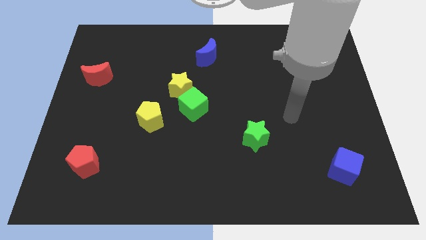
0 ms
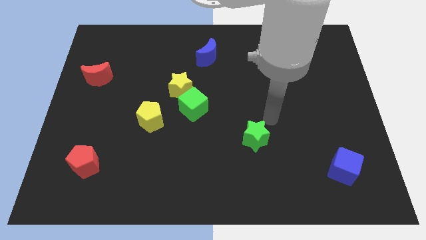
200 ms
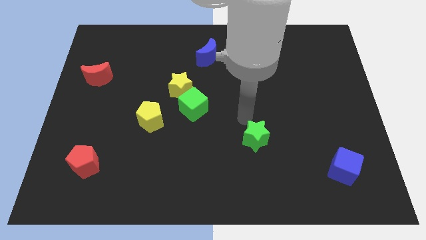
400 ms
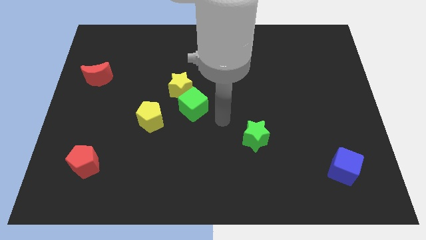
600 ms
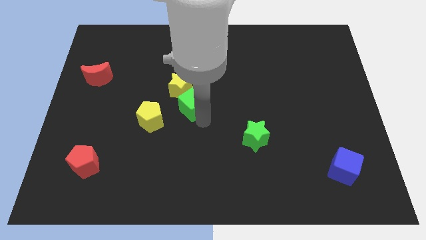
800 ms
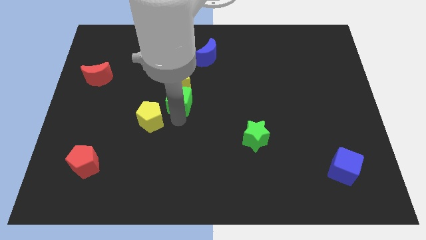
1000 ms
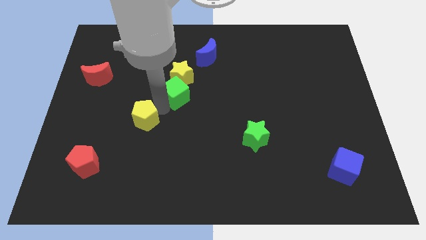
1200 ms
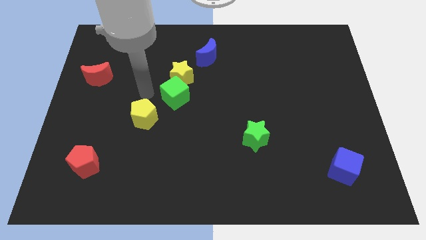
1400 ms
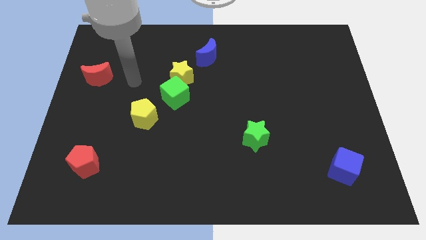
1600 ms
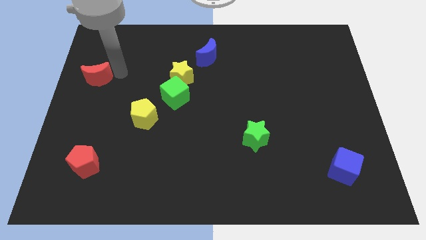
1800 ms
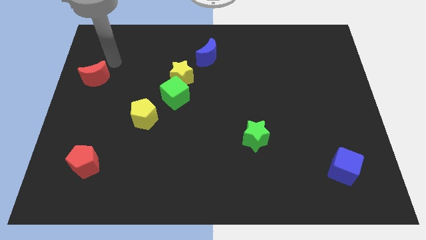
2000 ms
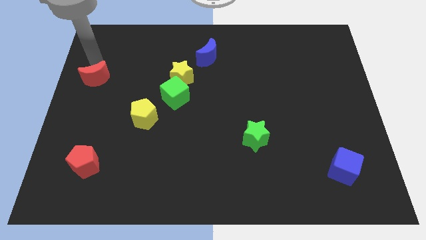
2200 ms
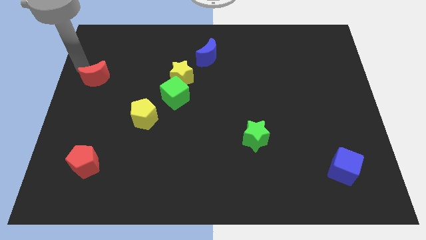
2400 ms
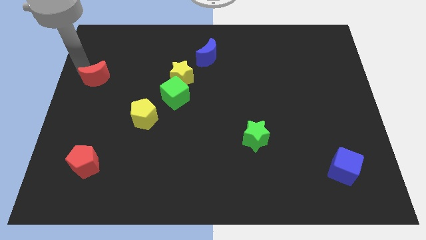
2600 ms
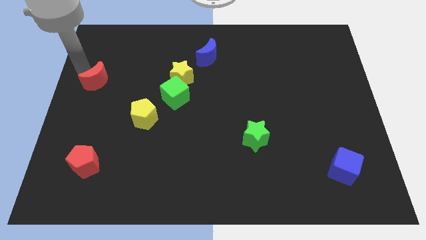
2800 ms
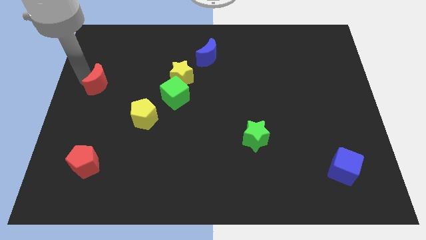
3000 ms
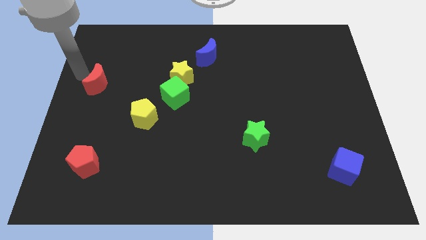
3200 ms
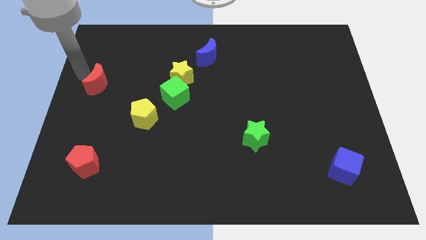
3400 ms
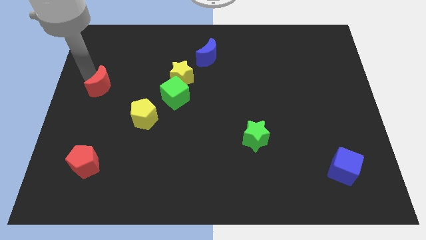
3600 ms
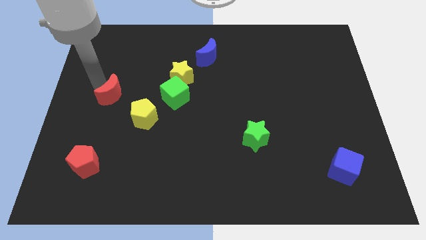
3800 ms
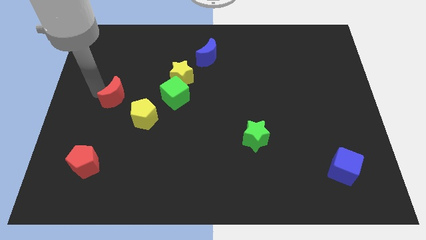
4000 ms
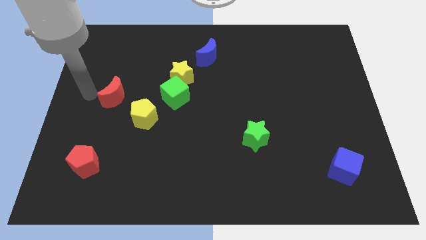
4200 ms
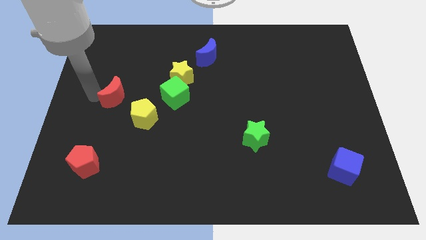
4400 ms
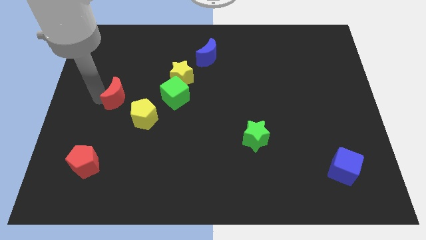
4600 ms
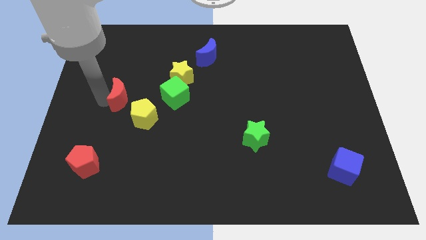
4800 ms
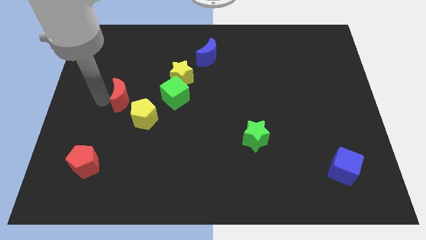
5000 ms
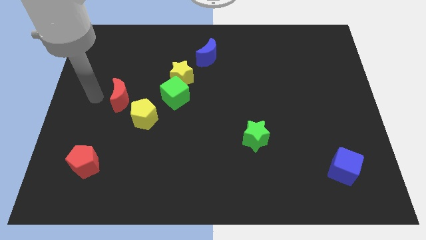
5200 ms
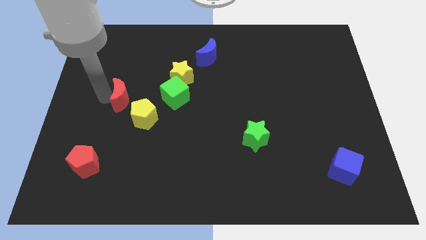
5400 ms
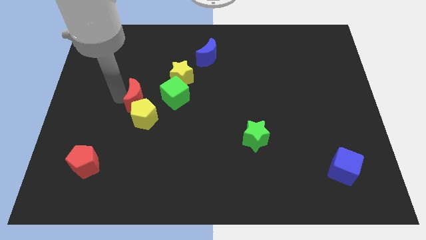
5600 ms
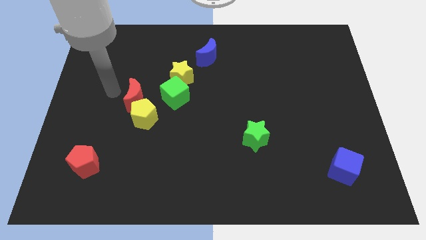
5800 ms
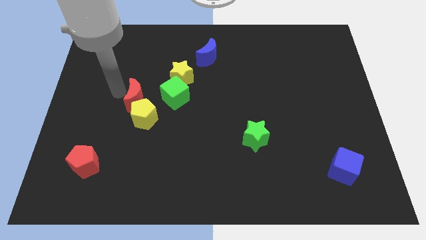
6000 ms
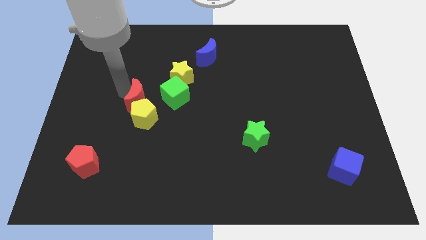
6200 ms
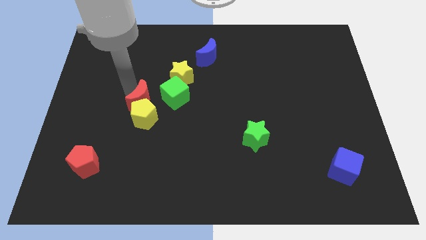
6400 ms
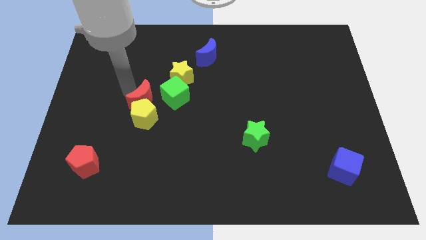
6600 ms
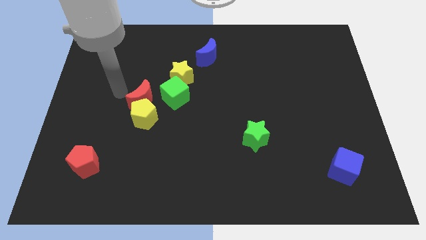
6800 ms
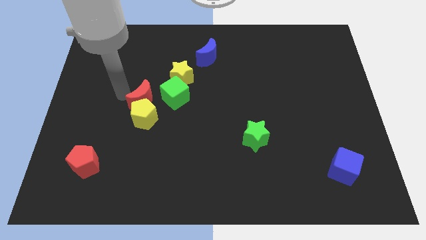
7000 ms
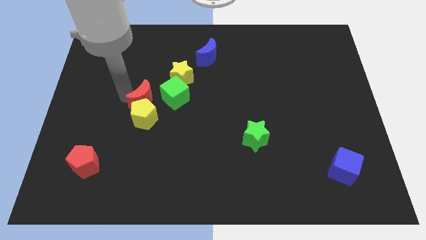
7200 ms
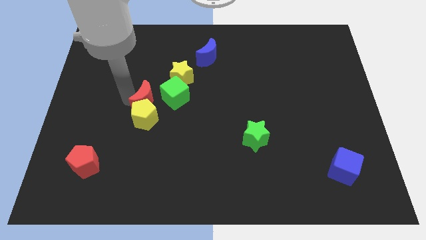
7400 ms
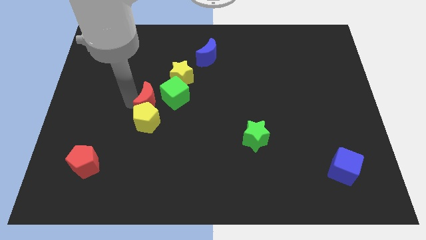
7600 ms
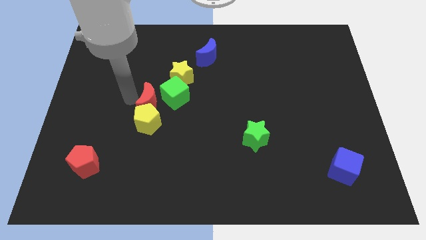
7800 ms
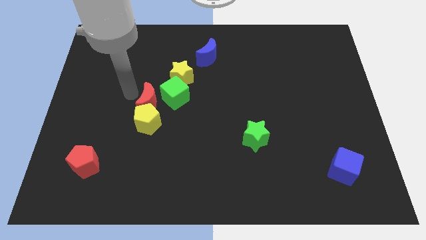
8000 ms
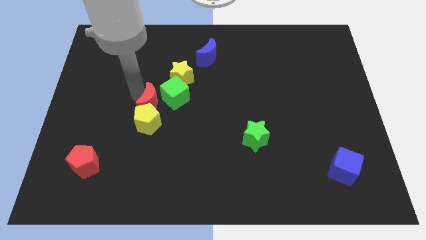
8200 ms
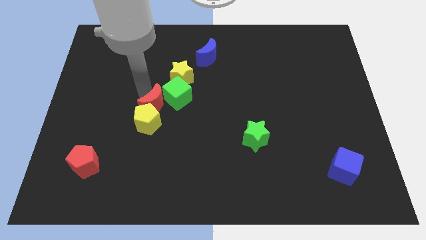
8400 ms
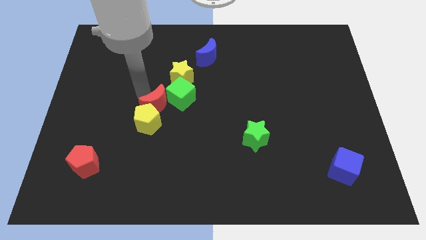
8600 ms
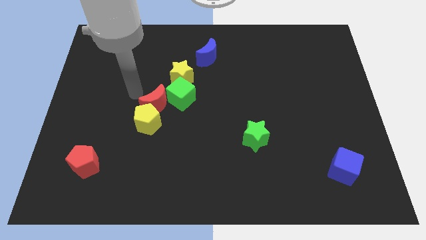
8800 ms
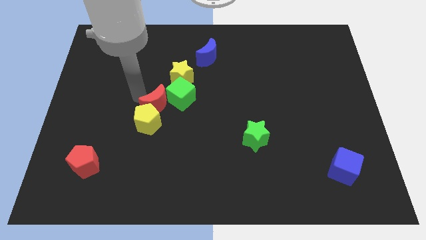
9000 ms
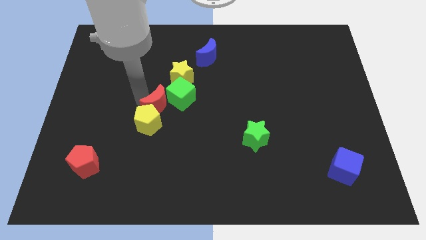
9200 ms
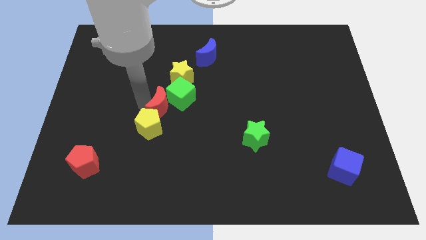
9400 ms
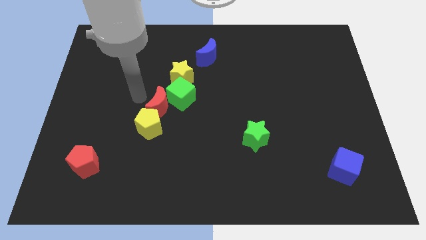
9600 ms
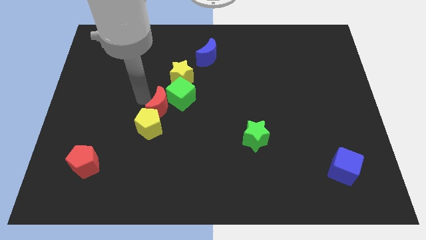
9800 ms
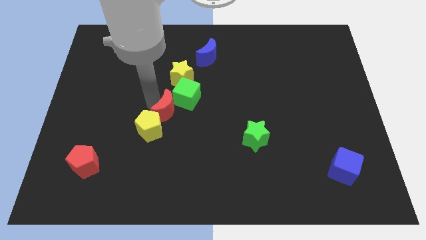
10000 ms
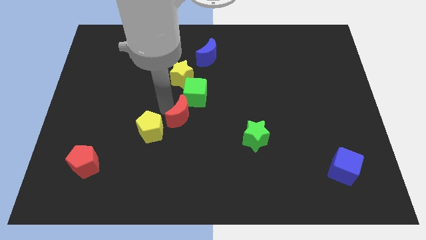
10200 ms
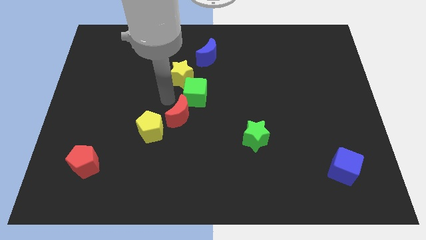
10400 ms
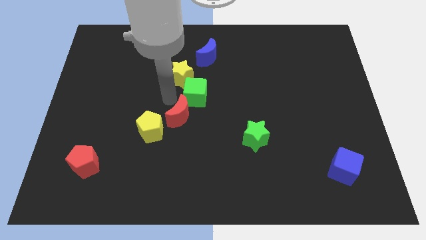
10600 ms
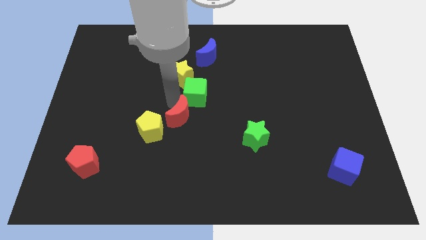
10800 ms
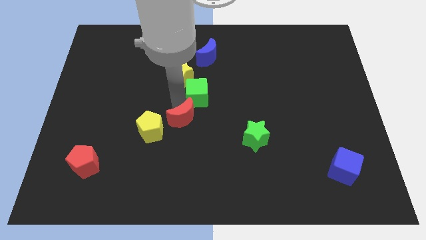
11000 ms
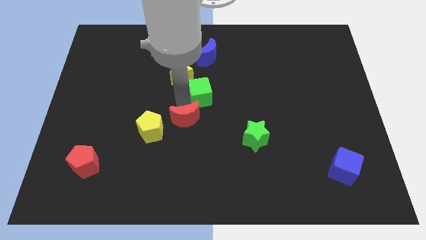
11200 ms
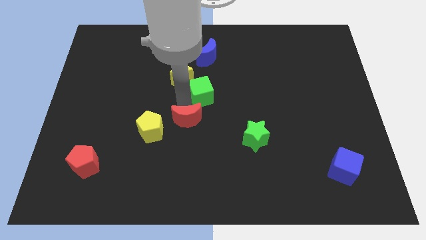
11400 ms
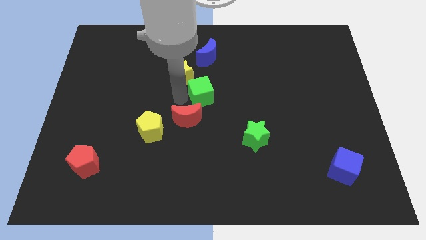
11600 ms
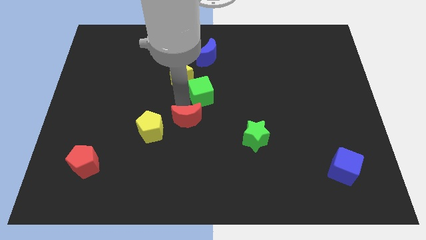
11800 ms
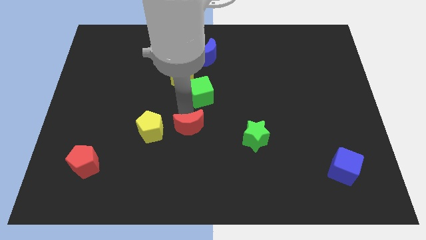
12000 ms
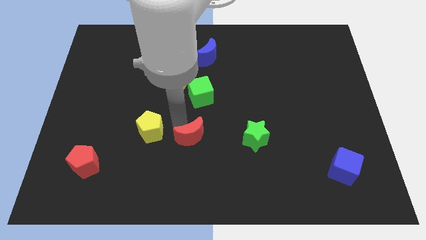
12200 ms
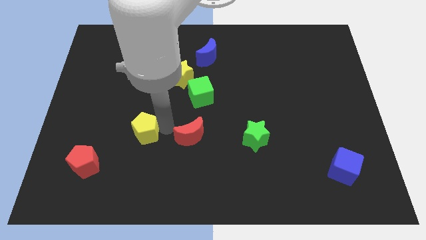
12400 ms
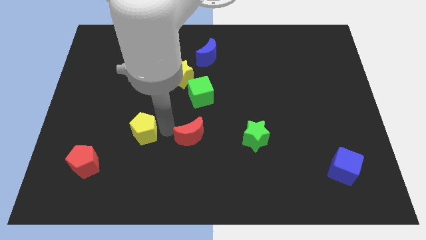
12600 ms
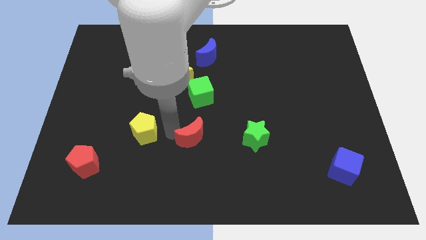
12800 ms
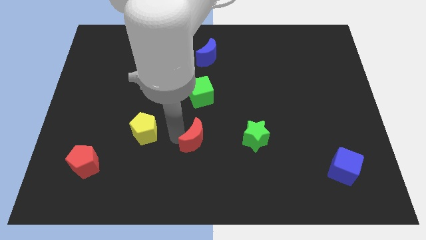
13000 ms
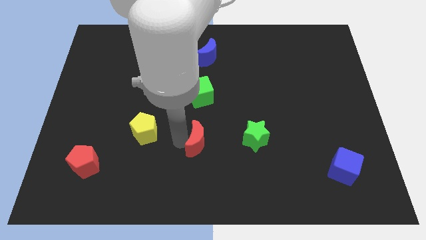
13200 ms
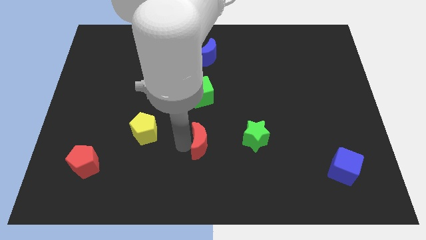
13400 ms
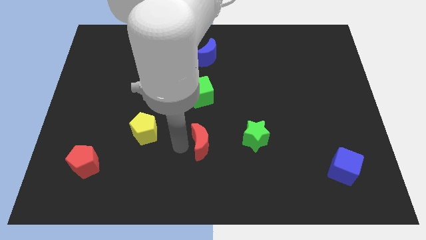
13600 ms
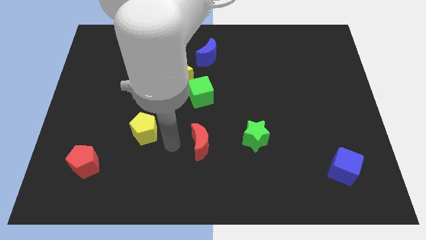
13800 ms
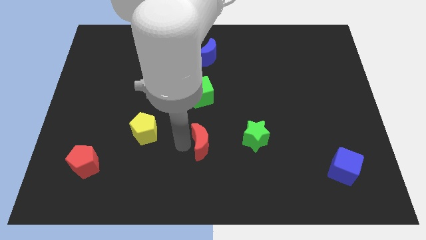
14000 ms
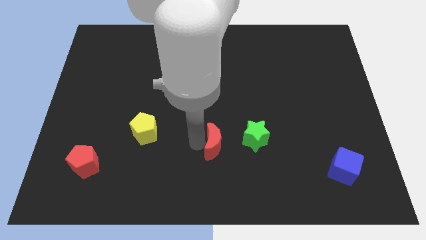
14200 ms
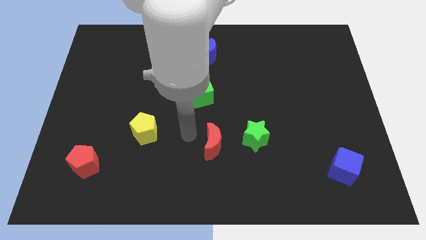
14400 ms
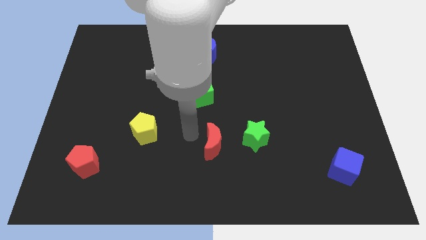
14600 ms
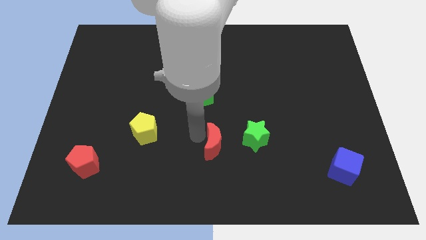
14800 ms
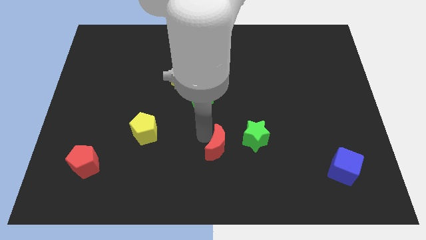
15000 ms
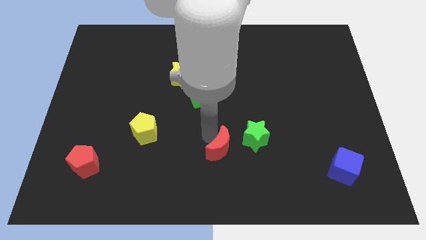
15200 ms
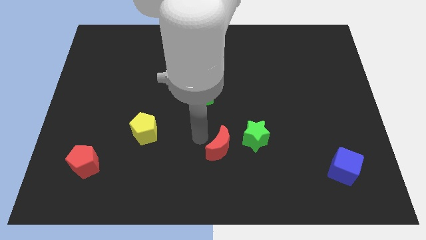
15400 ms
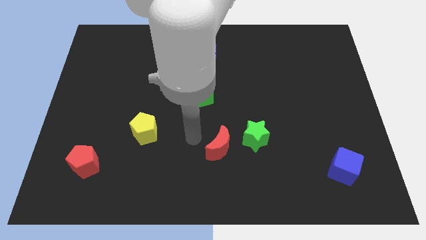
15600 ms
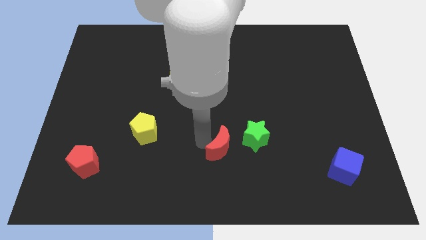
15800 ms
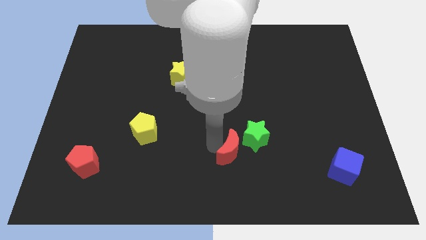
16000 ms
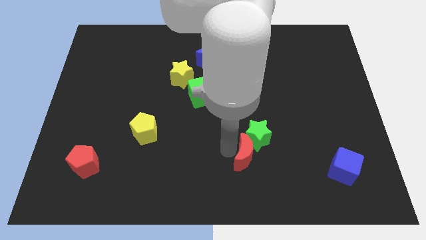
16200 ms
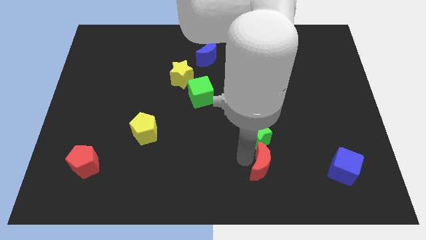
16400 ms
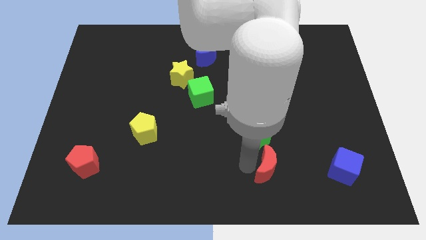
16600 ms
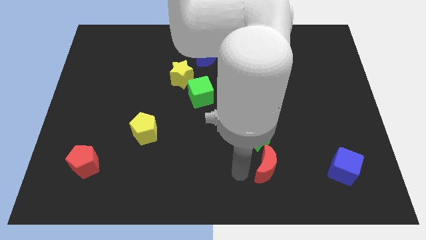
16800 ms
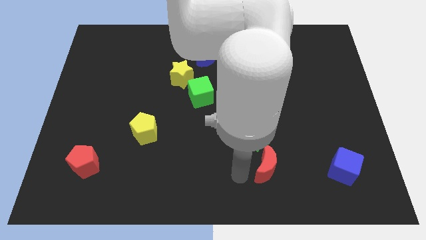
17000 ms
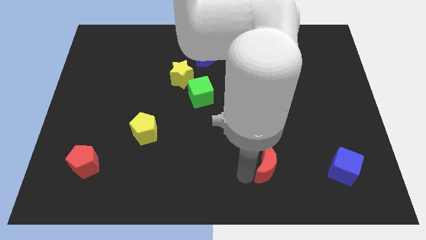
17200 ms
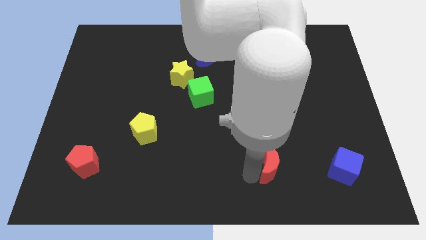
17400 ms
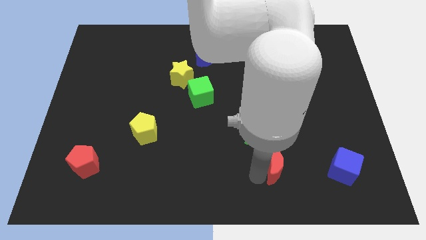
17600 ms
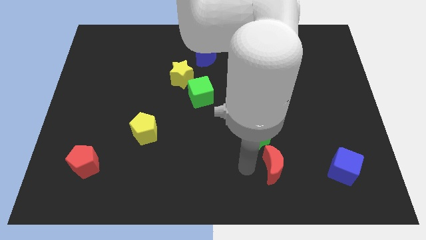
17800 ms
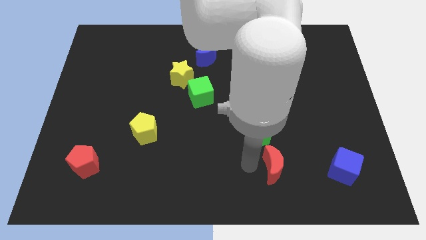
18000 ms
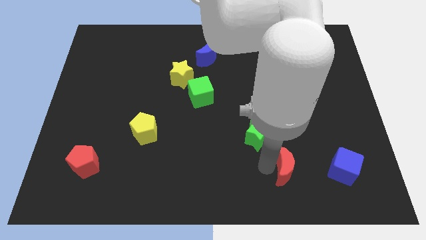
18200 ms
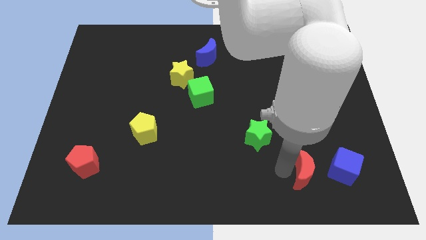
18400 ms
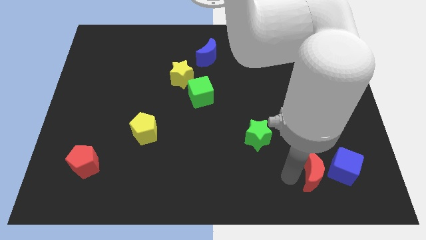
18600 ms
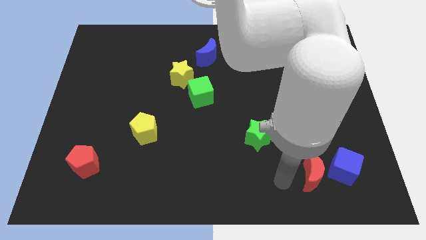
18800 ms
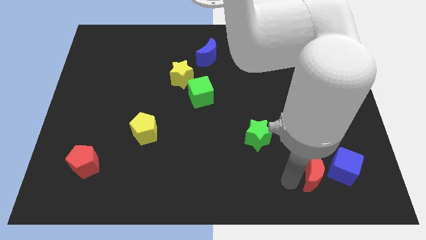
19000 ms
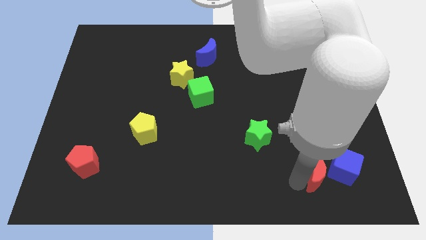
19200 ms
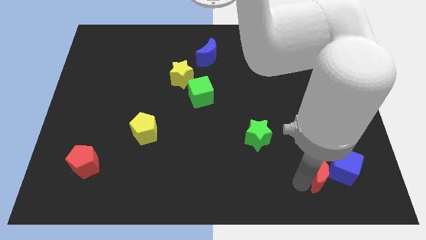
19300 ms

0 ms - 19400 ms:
move the red moon towards the blue cube
